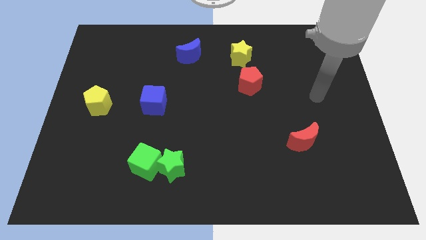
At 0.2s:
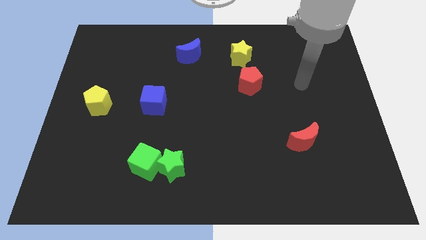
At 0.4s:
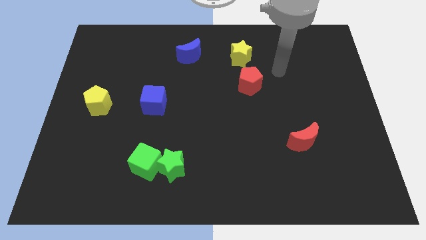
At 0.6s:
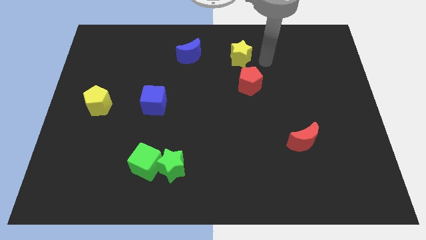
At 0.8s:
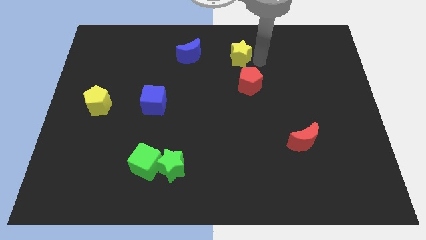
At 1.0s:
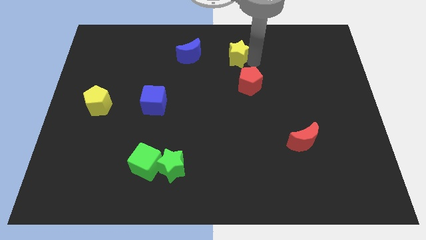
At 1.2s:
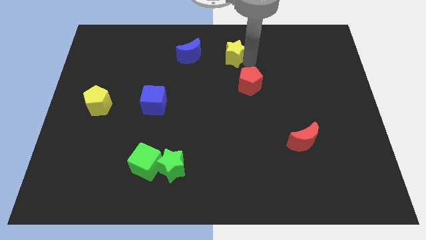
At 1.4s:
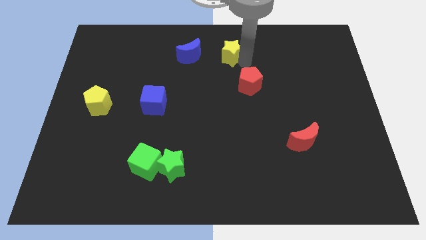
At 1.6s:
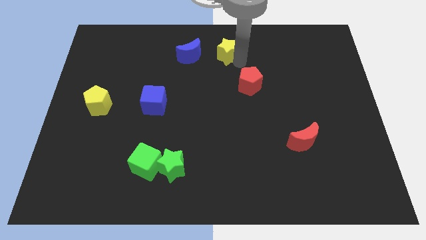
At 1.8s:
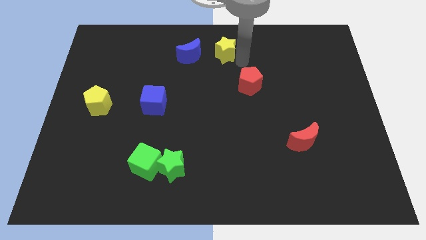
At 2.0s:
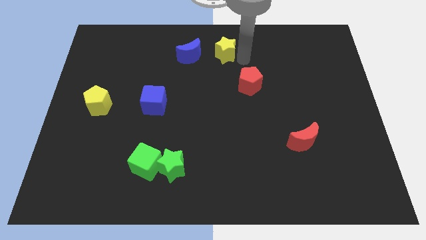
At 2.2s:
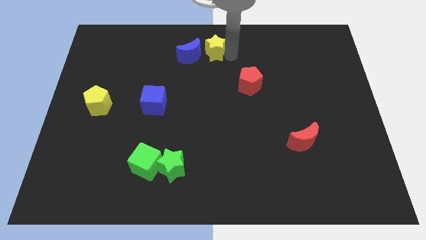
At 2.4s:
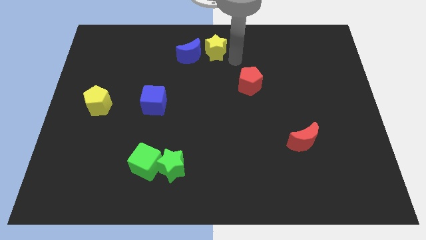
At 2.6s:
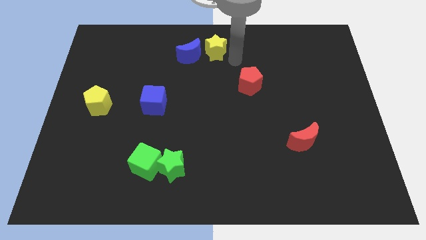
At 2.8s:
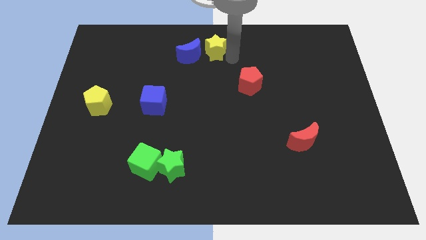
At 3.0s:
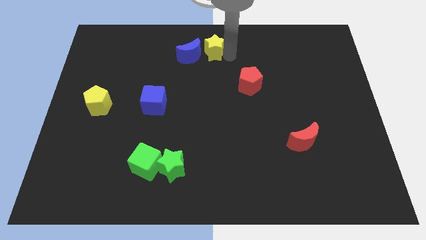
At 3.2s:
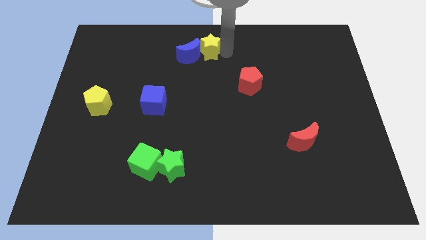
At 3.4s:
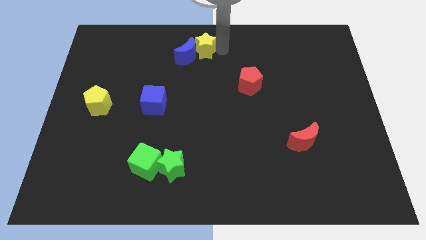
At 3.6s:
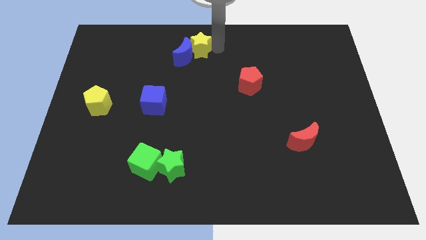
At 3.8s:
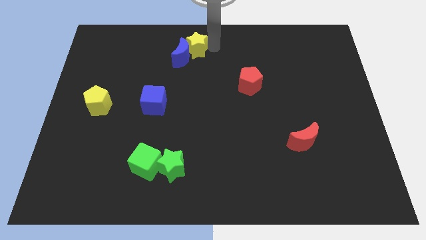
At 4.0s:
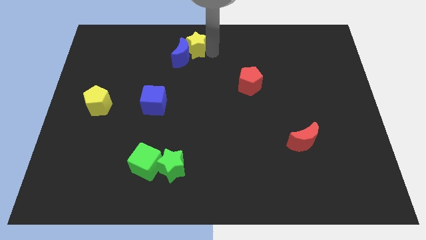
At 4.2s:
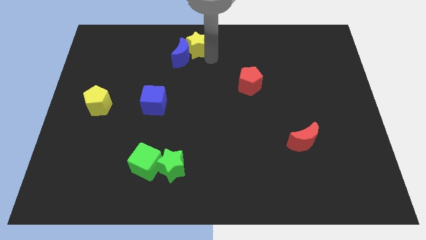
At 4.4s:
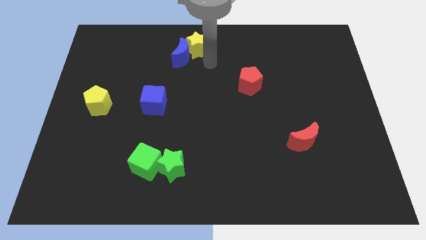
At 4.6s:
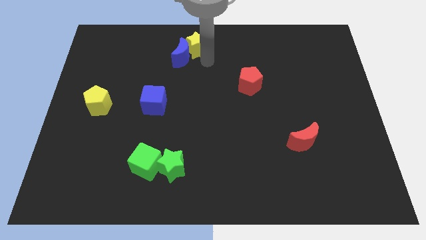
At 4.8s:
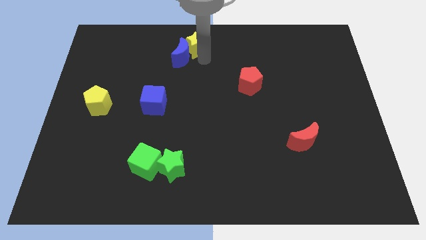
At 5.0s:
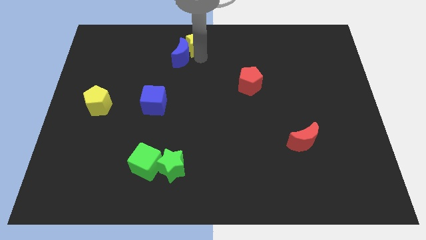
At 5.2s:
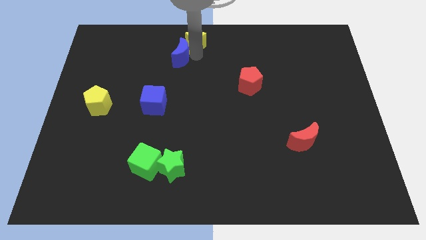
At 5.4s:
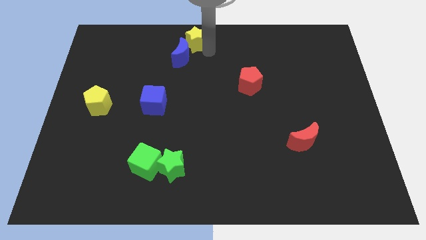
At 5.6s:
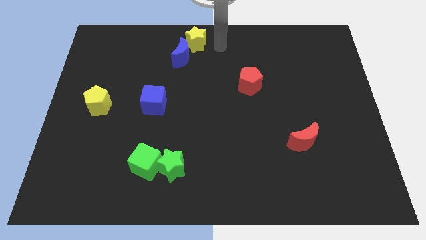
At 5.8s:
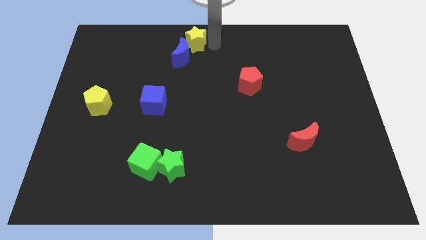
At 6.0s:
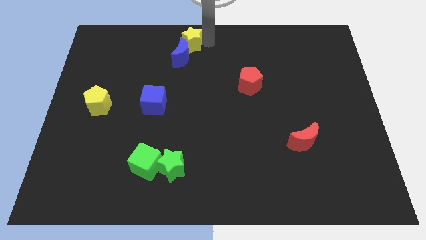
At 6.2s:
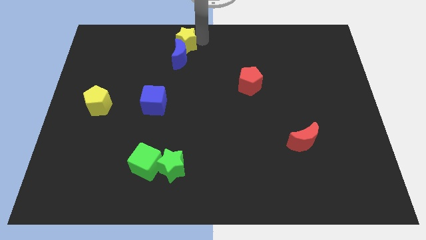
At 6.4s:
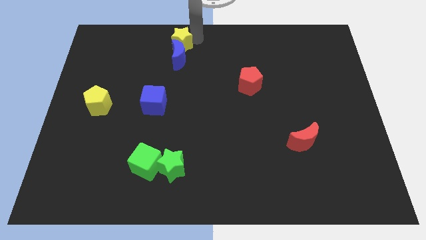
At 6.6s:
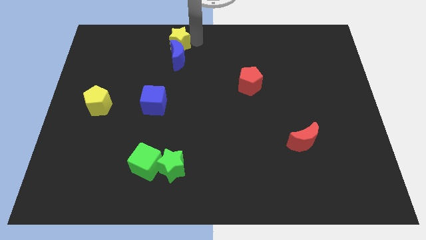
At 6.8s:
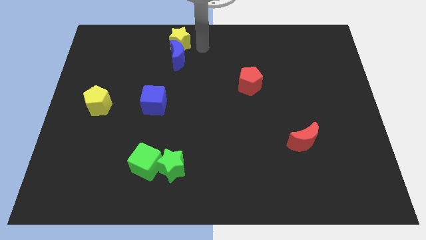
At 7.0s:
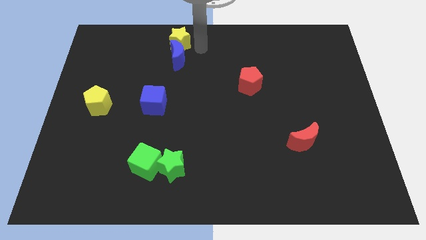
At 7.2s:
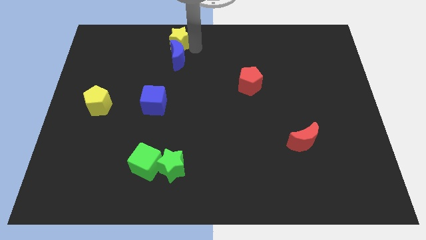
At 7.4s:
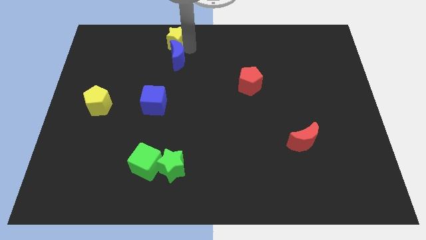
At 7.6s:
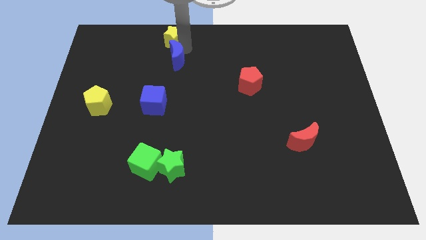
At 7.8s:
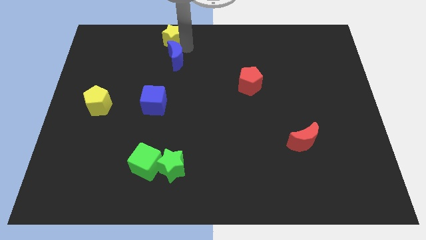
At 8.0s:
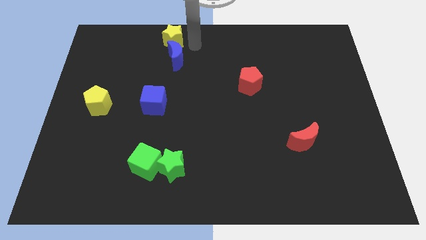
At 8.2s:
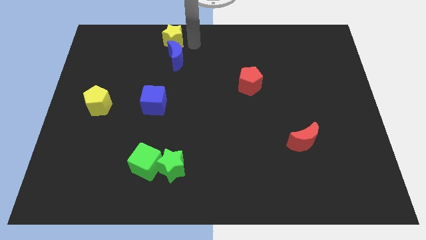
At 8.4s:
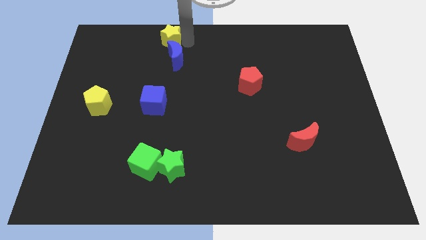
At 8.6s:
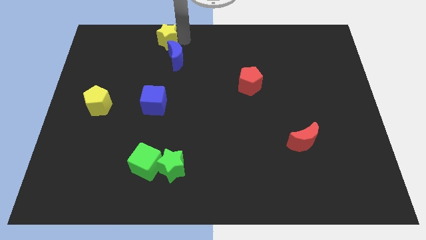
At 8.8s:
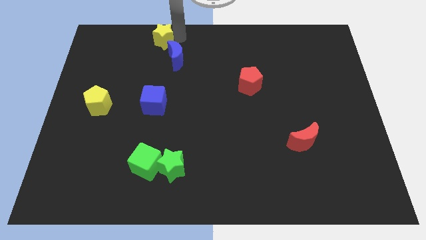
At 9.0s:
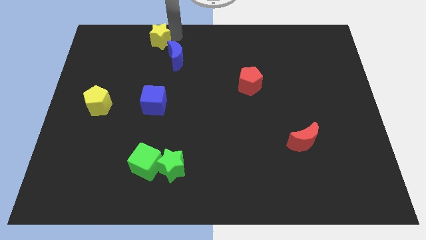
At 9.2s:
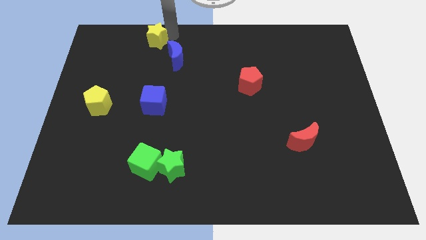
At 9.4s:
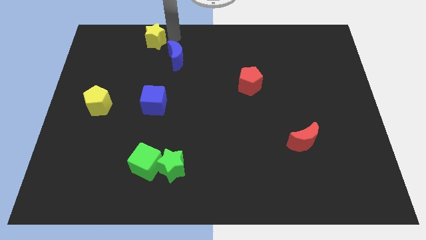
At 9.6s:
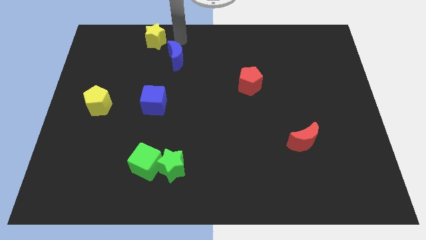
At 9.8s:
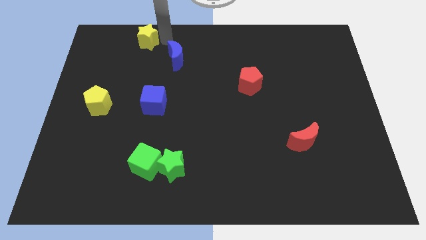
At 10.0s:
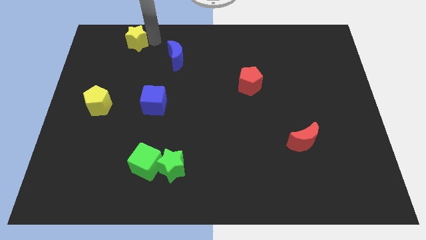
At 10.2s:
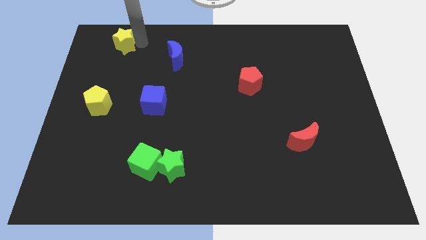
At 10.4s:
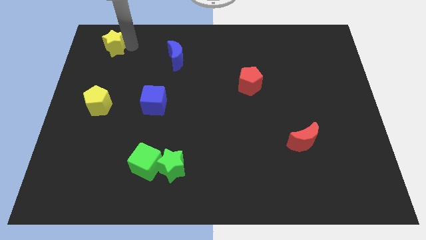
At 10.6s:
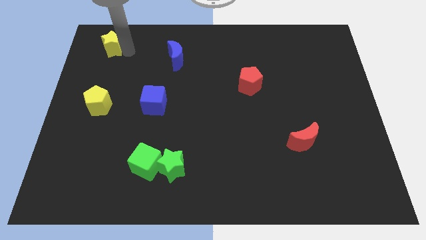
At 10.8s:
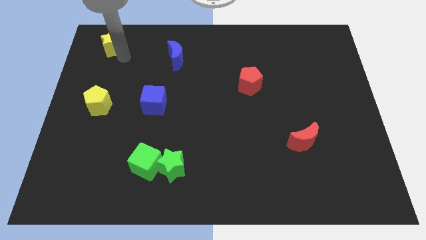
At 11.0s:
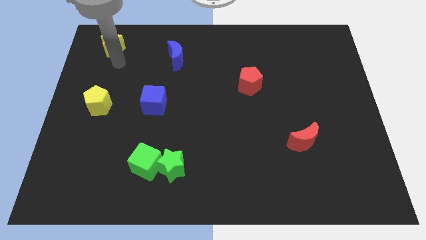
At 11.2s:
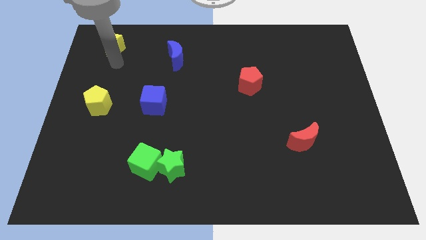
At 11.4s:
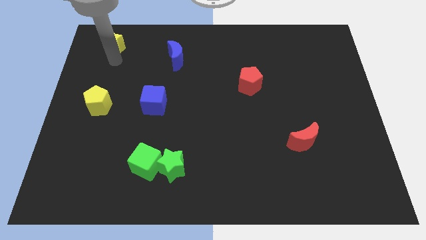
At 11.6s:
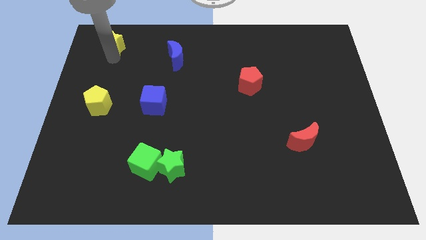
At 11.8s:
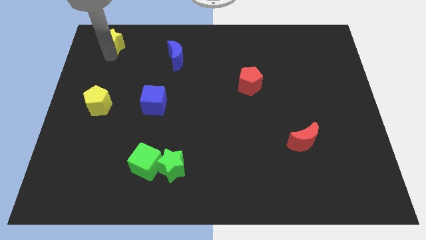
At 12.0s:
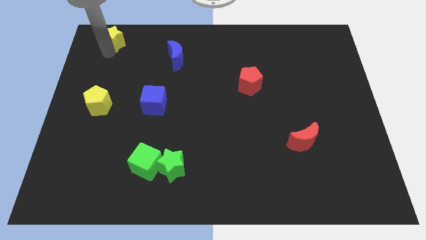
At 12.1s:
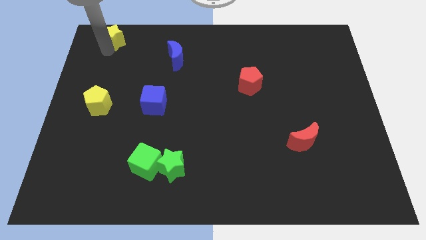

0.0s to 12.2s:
slide the yellow star to the upper left corner
